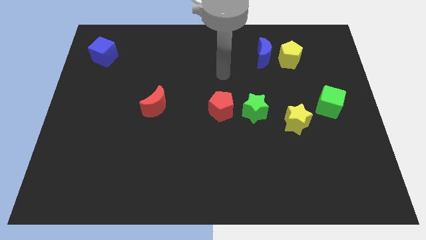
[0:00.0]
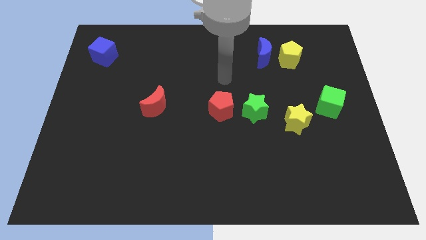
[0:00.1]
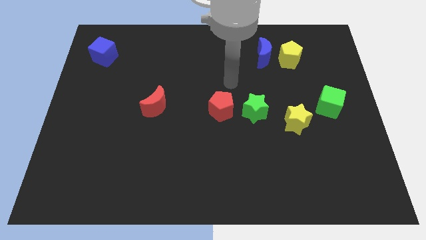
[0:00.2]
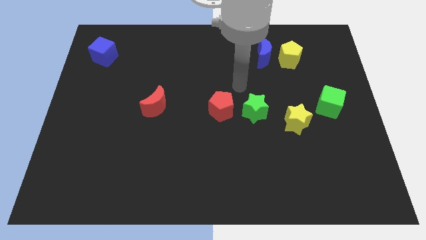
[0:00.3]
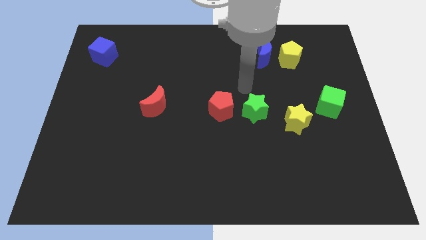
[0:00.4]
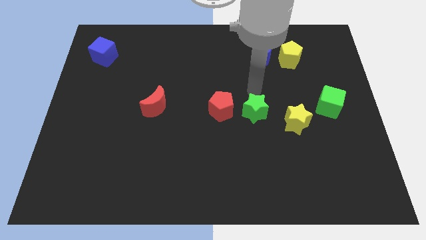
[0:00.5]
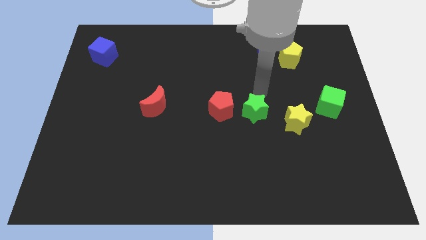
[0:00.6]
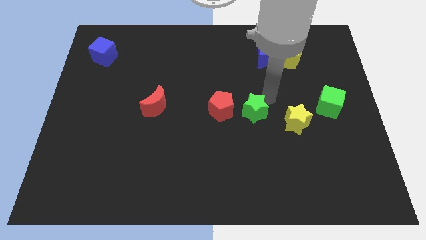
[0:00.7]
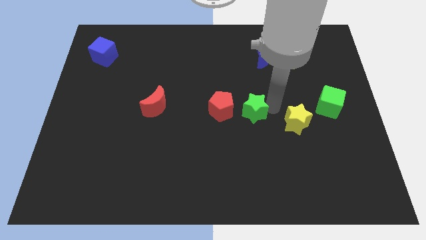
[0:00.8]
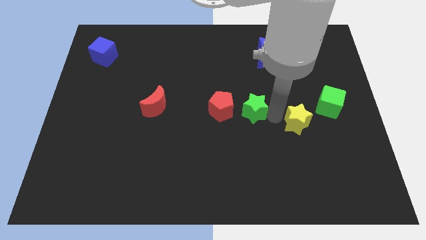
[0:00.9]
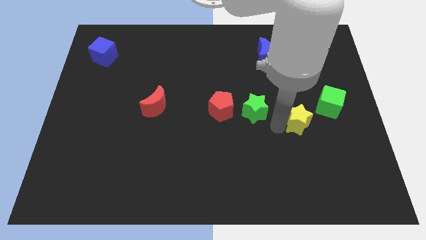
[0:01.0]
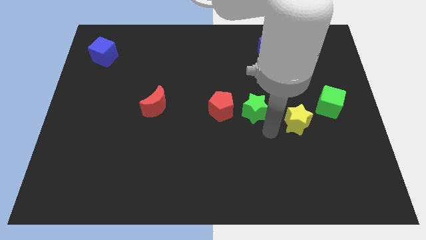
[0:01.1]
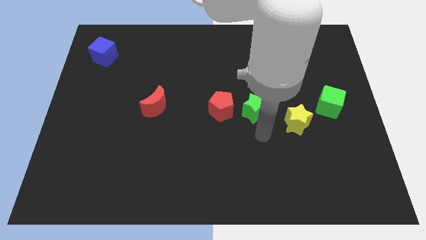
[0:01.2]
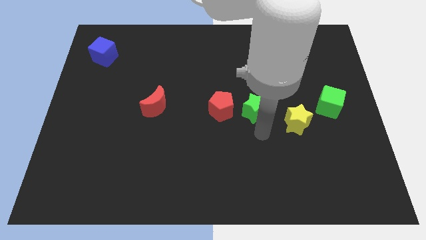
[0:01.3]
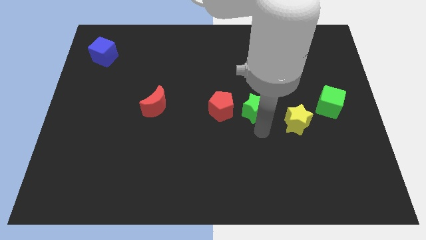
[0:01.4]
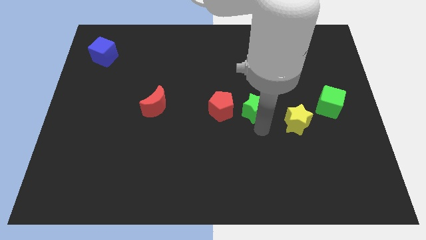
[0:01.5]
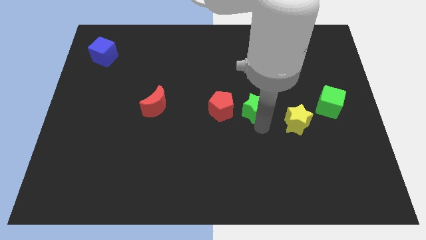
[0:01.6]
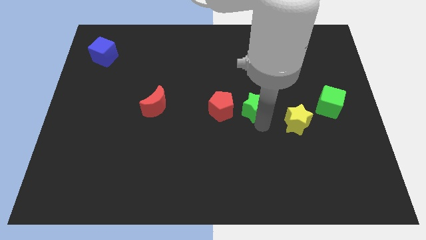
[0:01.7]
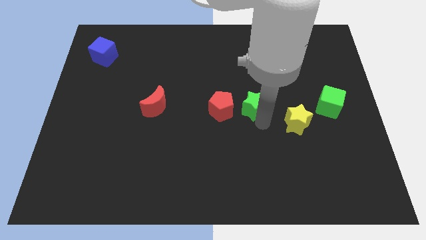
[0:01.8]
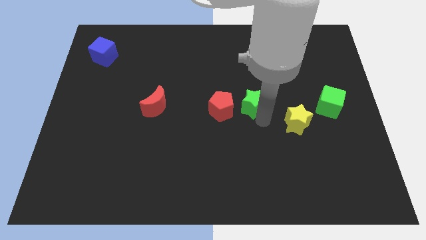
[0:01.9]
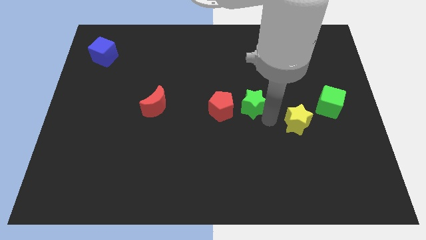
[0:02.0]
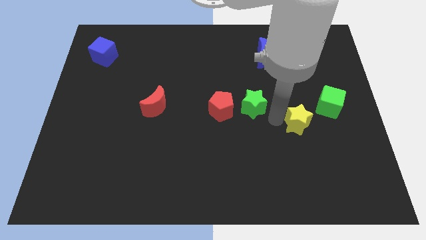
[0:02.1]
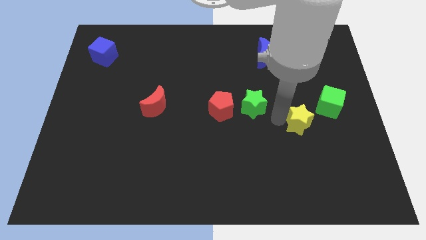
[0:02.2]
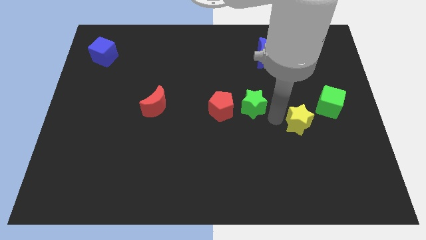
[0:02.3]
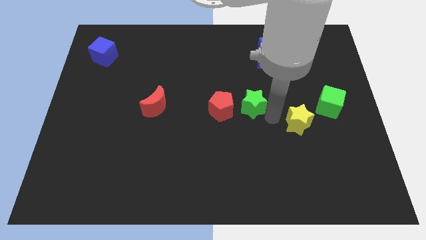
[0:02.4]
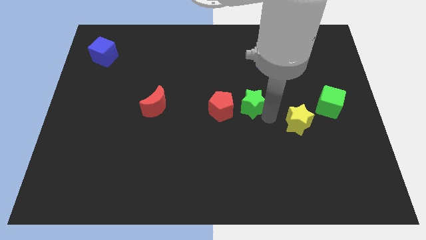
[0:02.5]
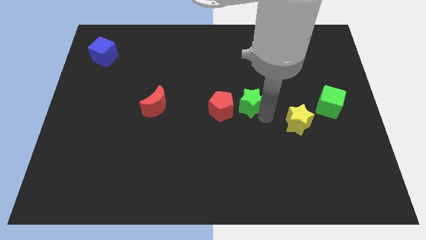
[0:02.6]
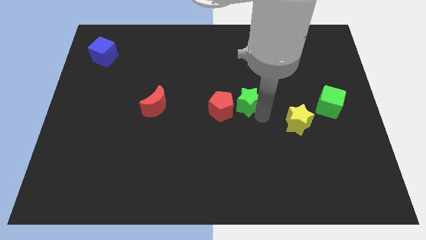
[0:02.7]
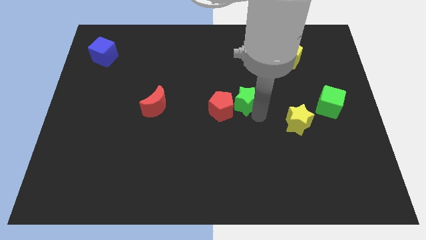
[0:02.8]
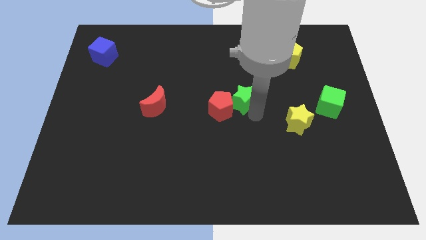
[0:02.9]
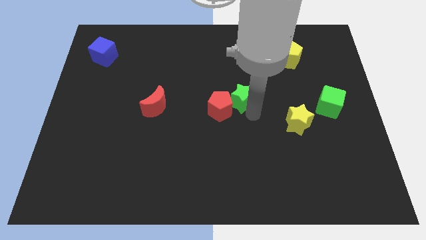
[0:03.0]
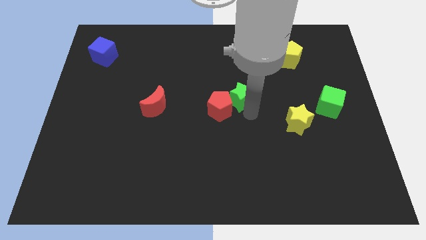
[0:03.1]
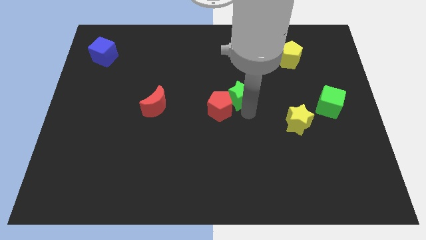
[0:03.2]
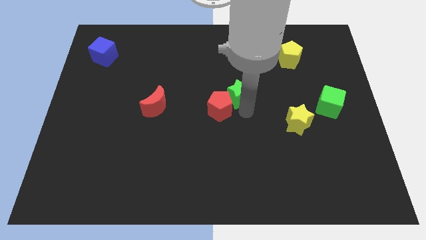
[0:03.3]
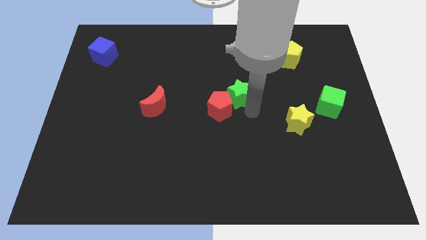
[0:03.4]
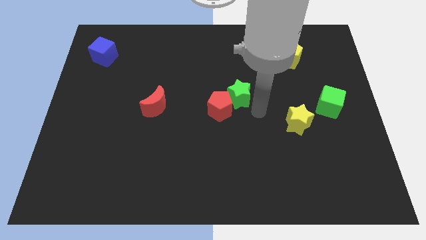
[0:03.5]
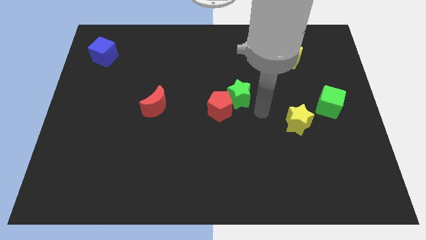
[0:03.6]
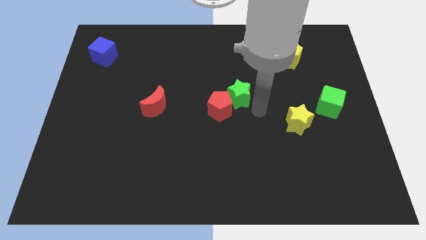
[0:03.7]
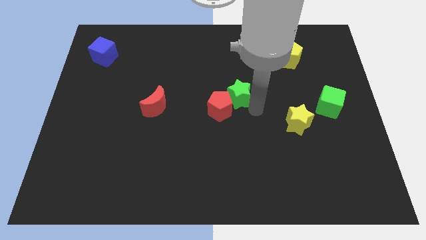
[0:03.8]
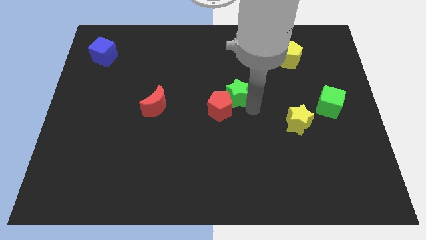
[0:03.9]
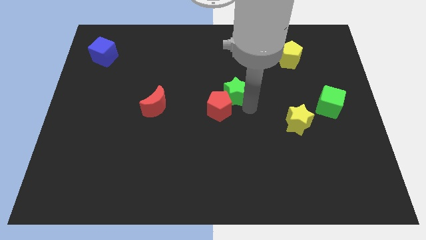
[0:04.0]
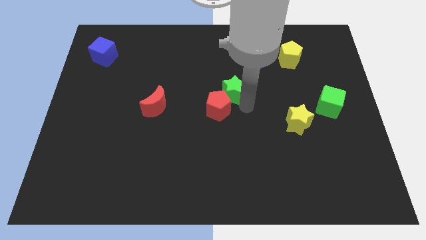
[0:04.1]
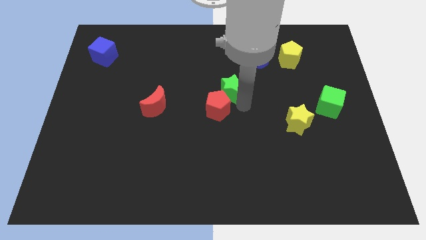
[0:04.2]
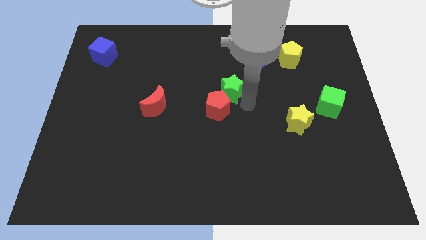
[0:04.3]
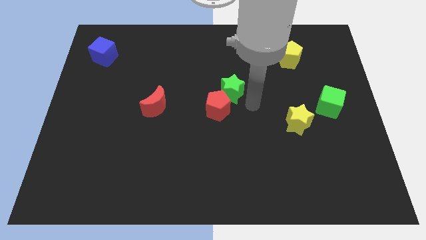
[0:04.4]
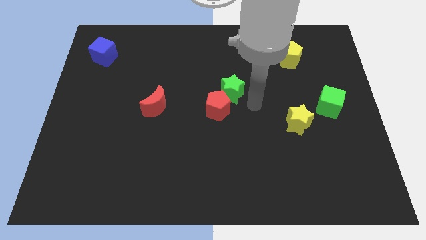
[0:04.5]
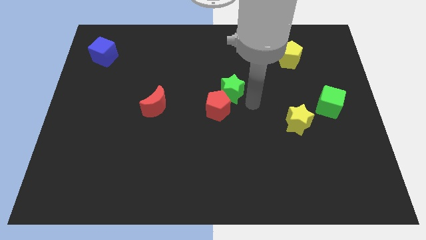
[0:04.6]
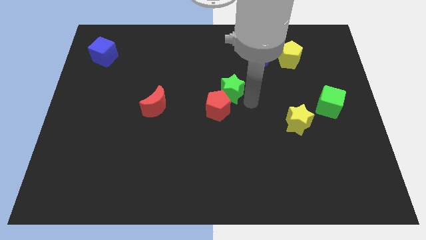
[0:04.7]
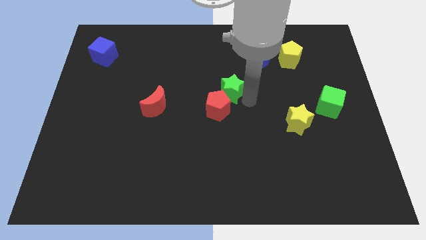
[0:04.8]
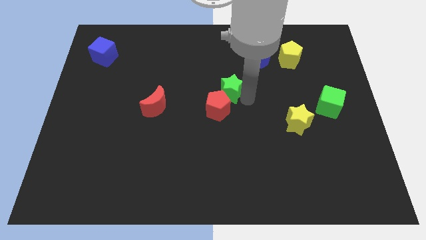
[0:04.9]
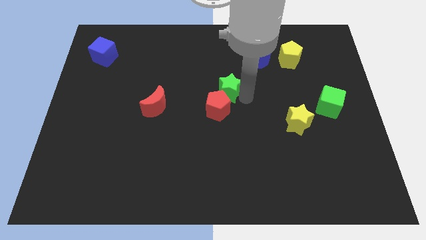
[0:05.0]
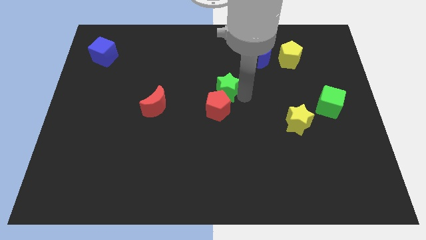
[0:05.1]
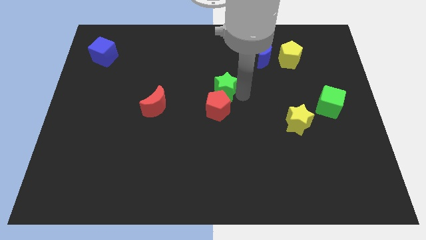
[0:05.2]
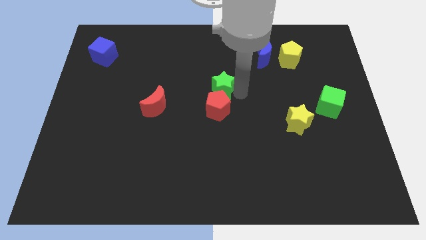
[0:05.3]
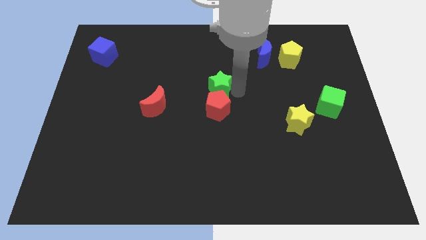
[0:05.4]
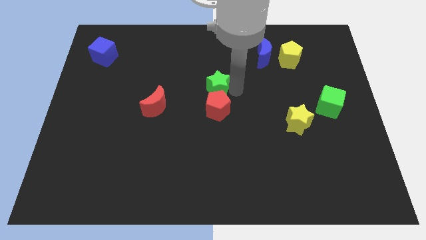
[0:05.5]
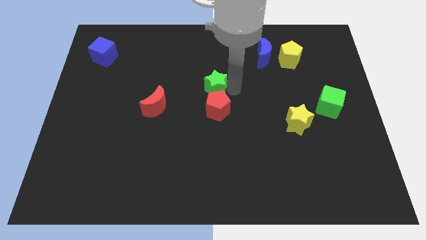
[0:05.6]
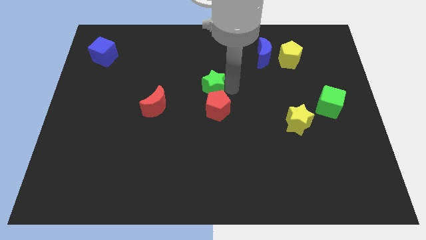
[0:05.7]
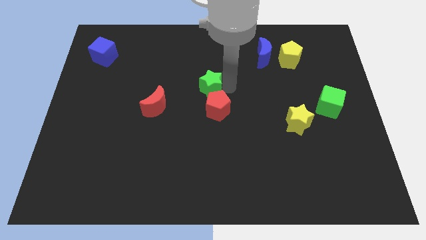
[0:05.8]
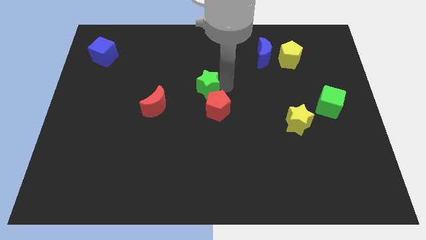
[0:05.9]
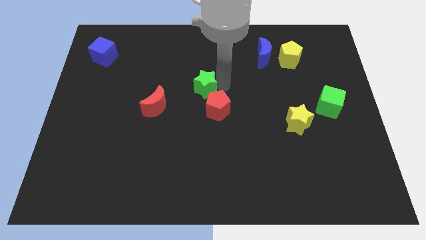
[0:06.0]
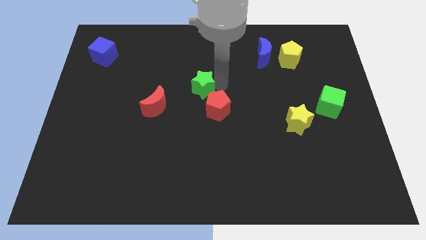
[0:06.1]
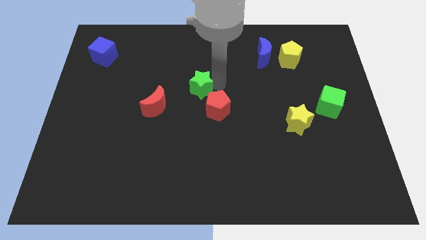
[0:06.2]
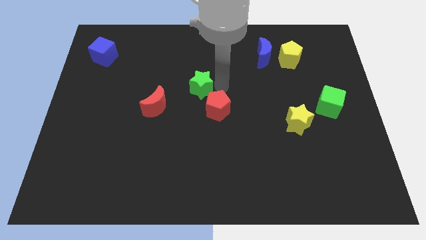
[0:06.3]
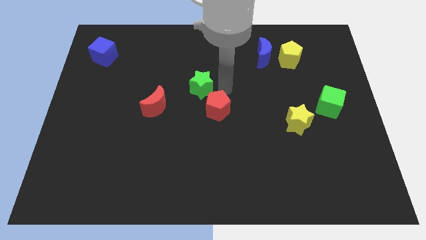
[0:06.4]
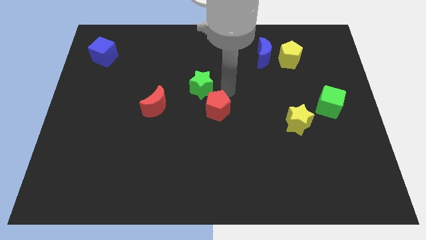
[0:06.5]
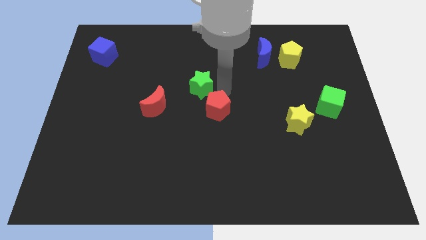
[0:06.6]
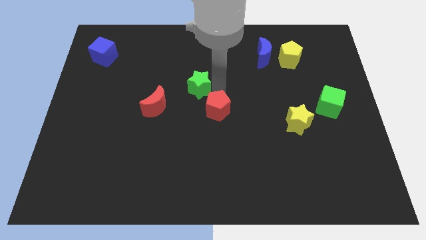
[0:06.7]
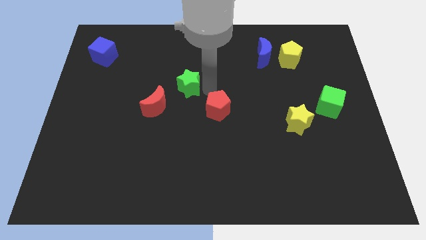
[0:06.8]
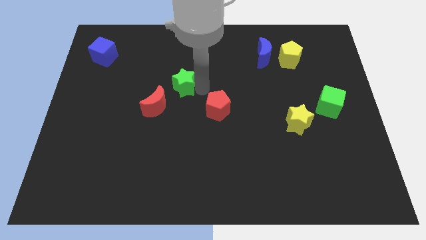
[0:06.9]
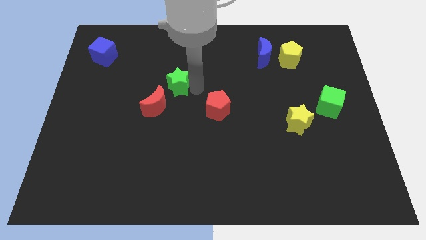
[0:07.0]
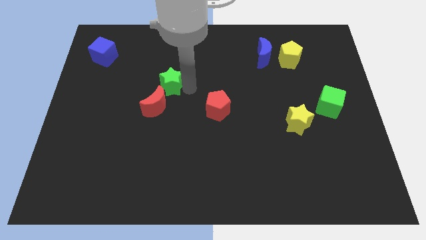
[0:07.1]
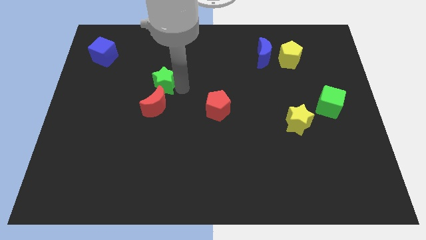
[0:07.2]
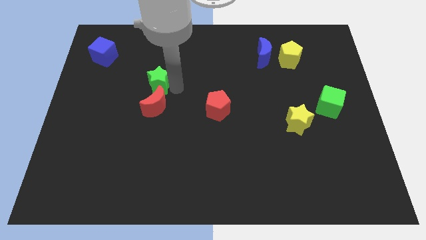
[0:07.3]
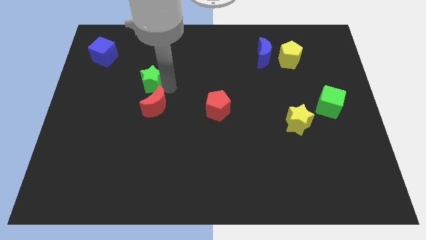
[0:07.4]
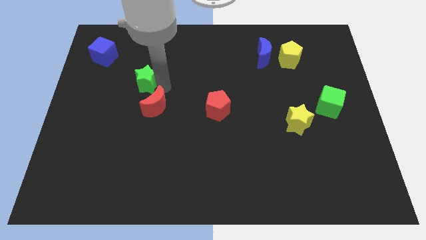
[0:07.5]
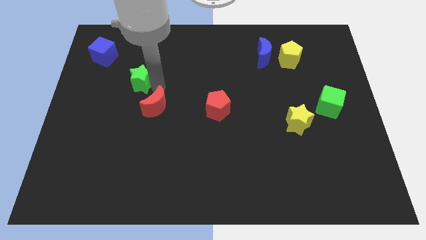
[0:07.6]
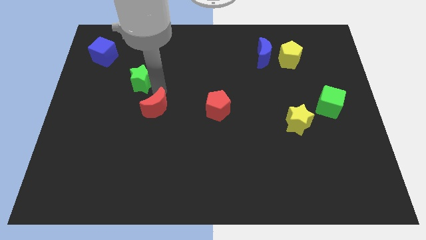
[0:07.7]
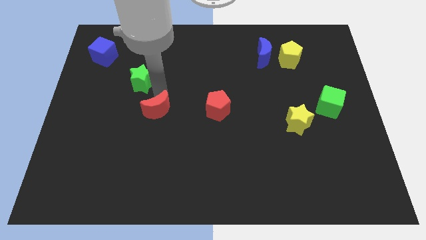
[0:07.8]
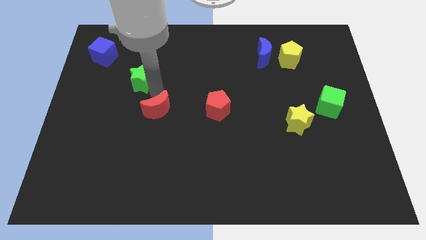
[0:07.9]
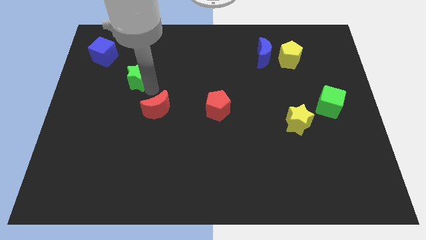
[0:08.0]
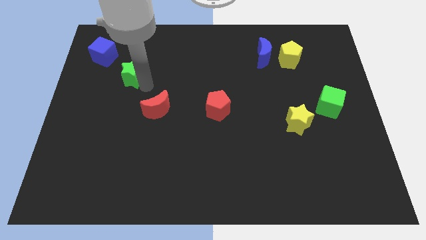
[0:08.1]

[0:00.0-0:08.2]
slide the green star to the bottom right of the blue cube
